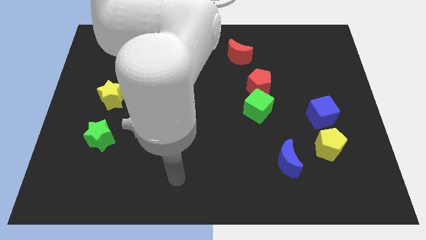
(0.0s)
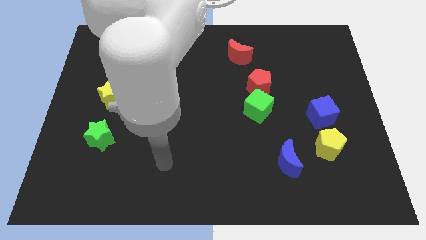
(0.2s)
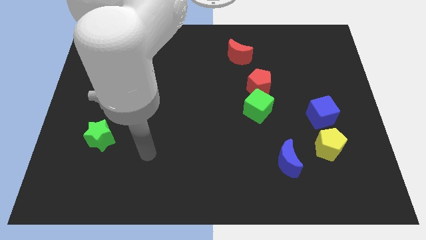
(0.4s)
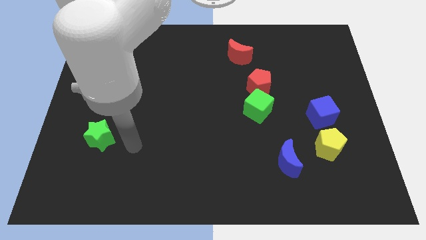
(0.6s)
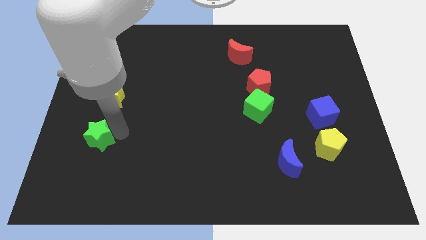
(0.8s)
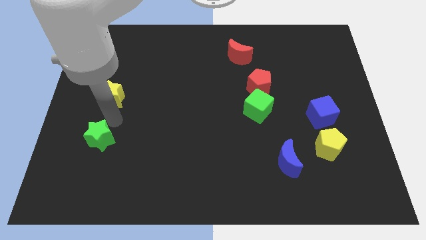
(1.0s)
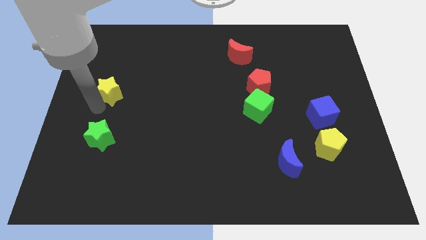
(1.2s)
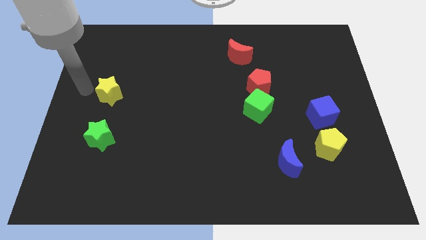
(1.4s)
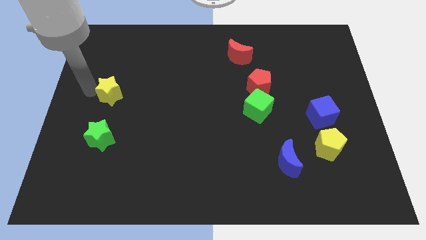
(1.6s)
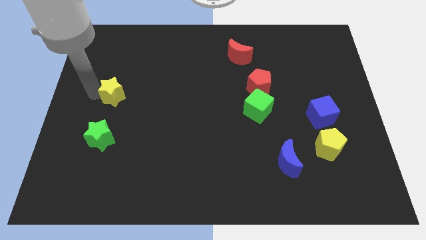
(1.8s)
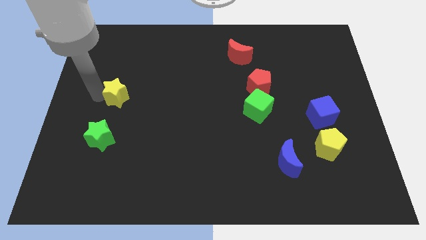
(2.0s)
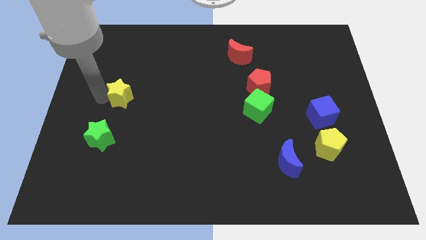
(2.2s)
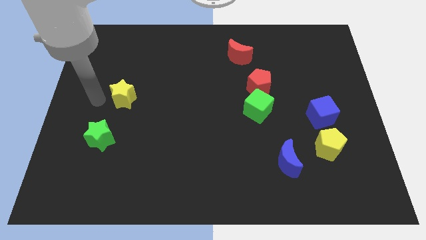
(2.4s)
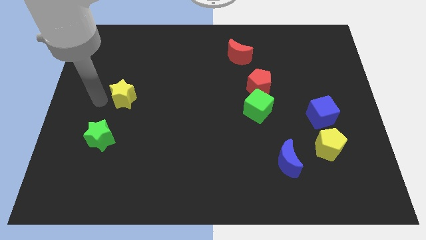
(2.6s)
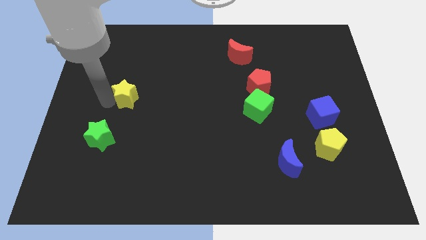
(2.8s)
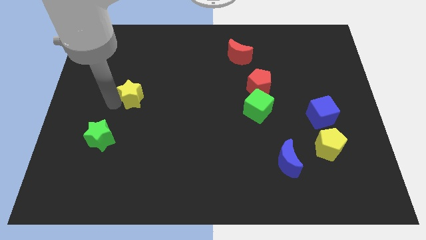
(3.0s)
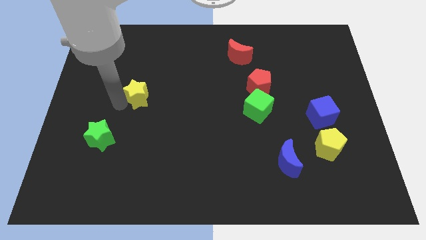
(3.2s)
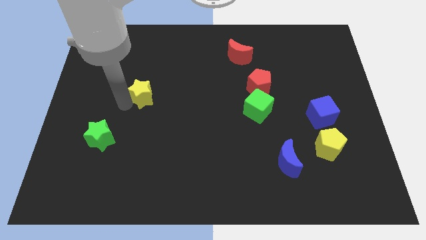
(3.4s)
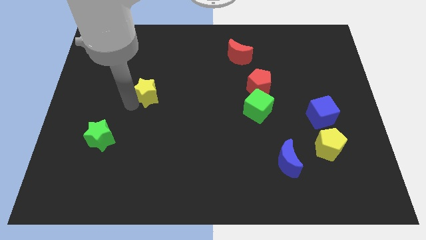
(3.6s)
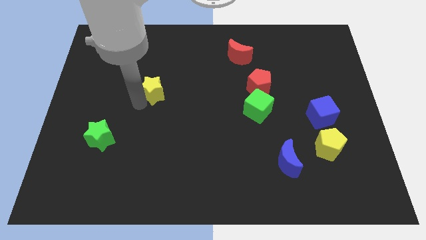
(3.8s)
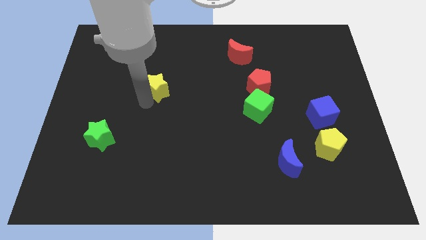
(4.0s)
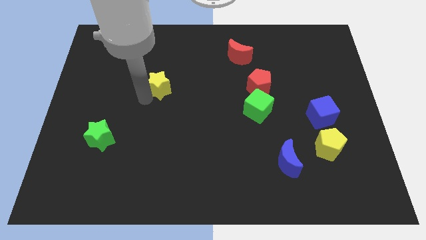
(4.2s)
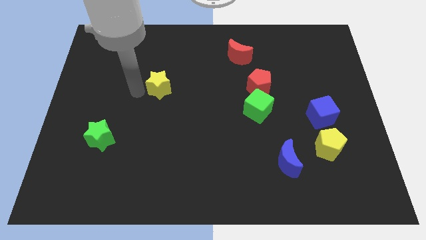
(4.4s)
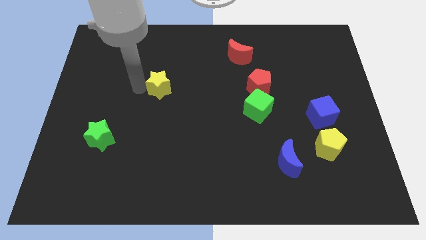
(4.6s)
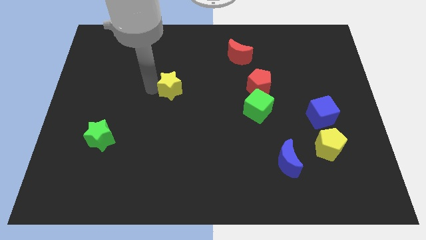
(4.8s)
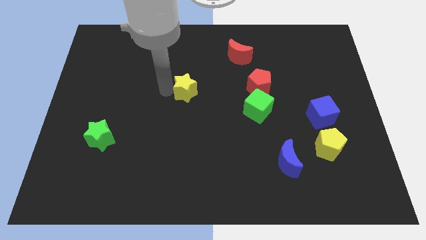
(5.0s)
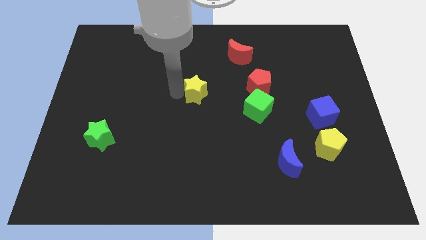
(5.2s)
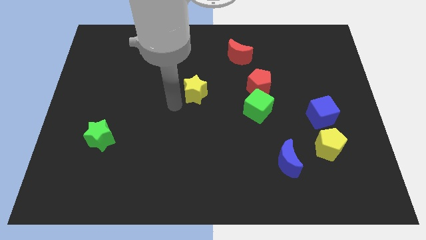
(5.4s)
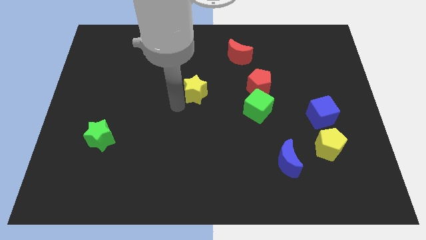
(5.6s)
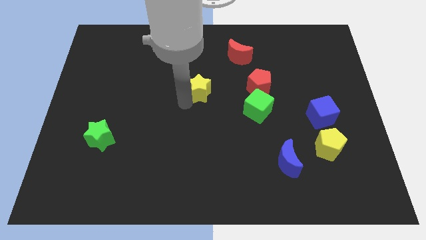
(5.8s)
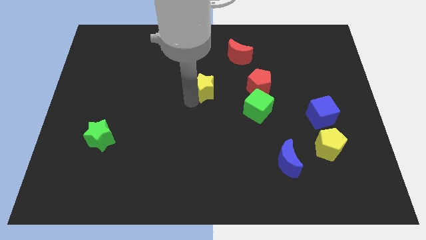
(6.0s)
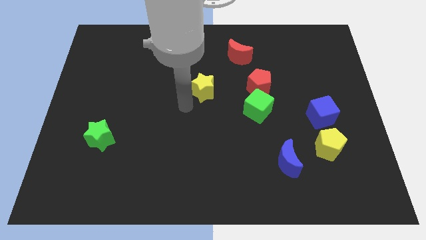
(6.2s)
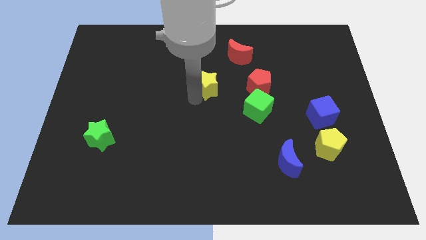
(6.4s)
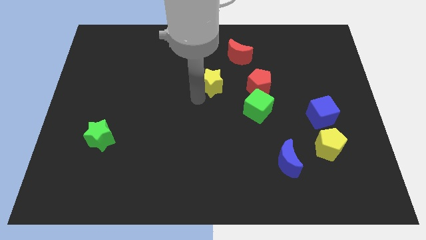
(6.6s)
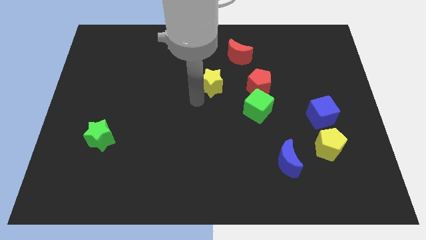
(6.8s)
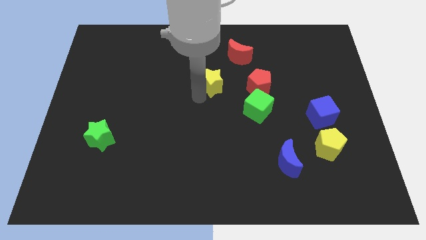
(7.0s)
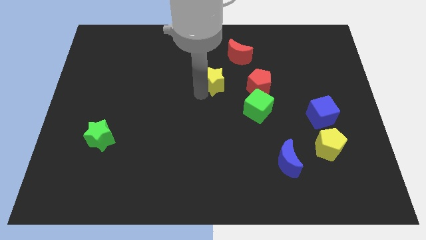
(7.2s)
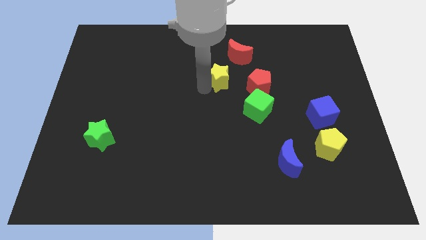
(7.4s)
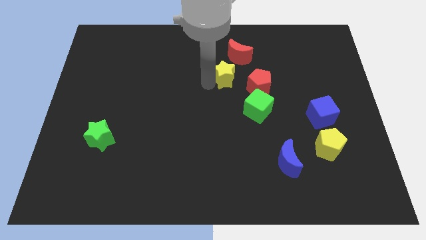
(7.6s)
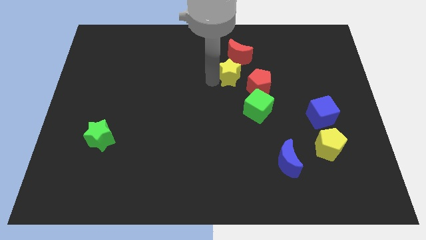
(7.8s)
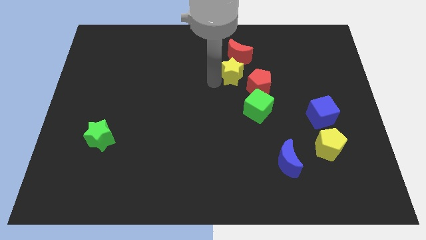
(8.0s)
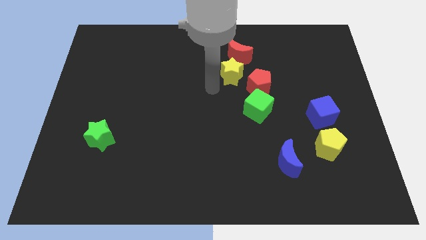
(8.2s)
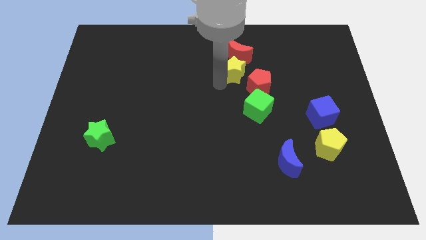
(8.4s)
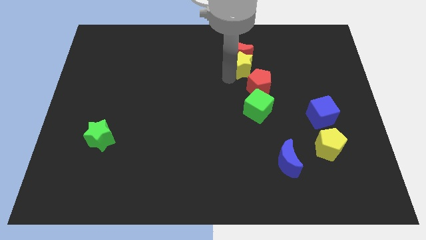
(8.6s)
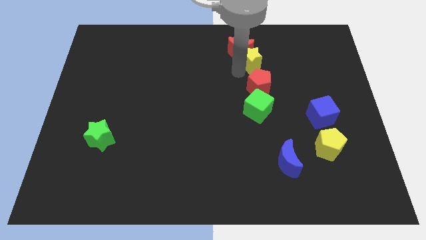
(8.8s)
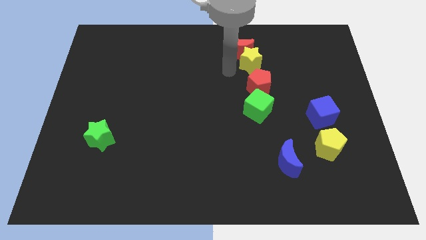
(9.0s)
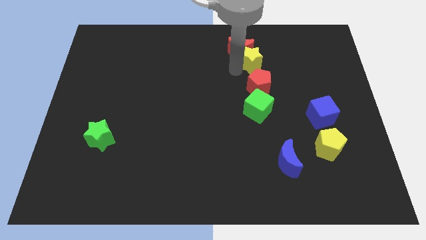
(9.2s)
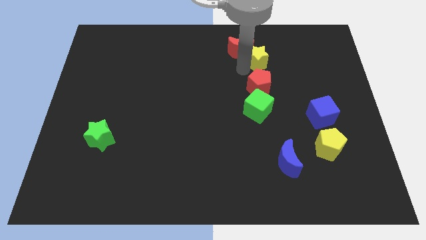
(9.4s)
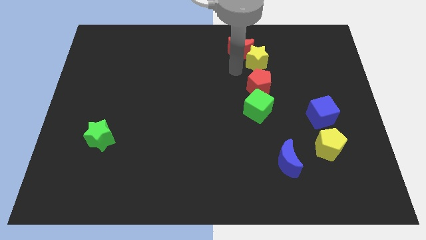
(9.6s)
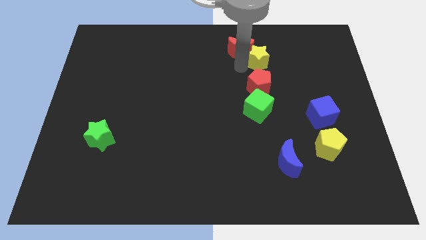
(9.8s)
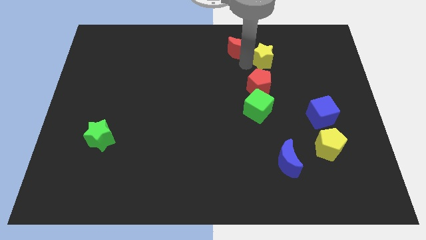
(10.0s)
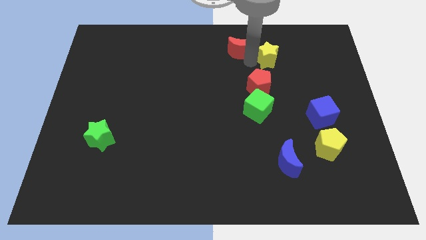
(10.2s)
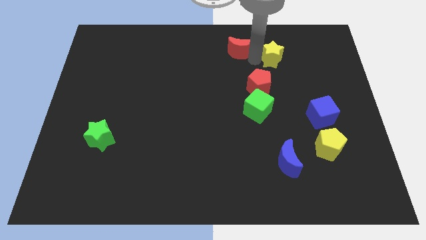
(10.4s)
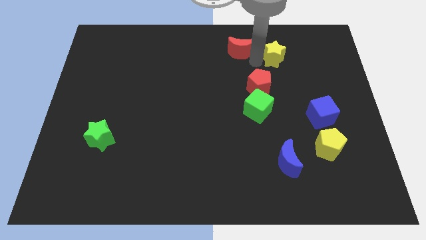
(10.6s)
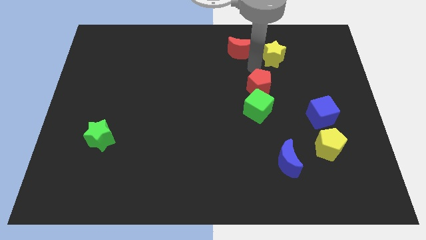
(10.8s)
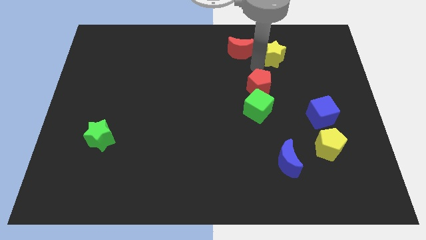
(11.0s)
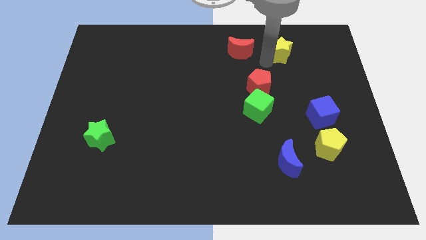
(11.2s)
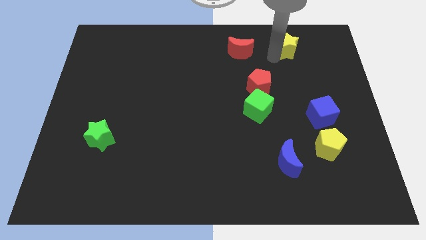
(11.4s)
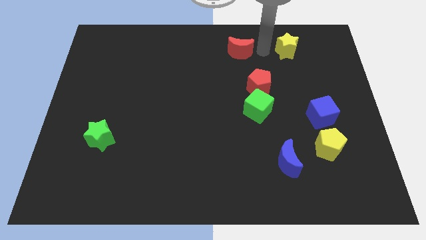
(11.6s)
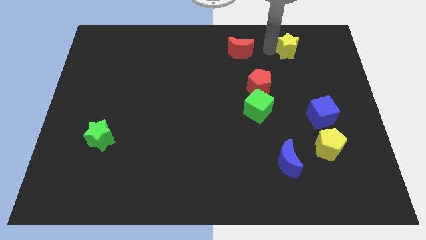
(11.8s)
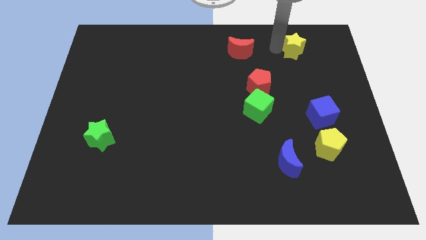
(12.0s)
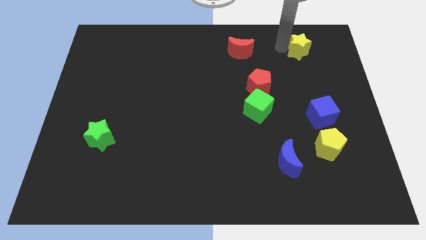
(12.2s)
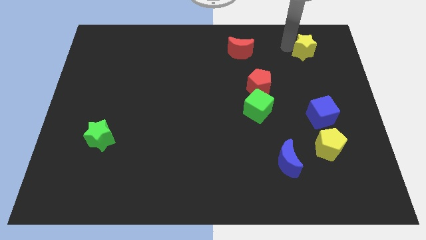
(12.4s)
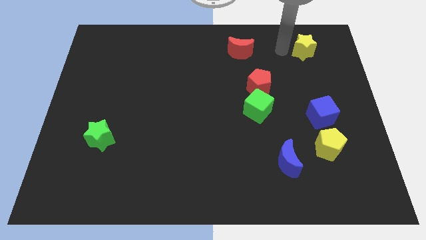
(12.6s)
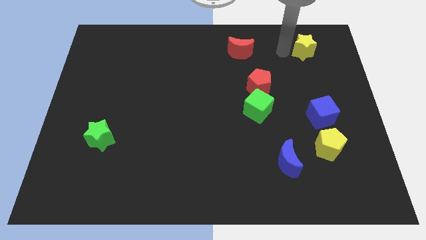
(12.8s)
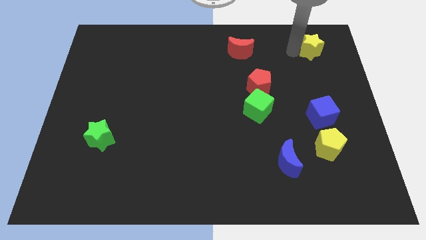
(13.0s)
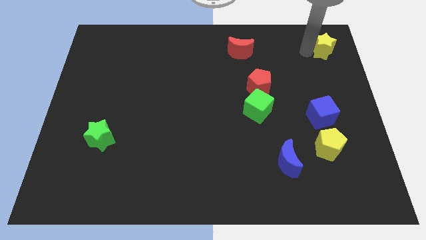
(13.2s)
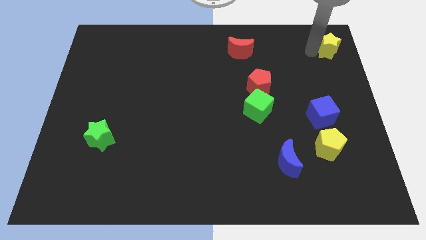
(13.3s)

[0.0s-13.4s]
push the yellow star to the upper right corner
